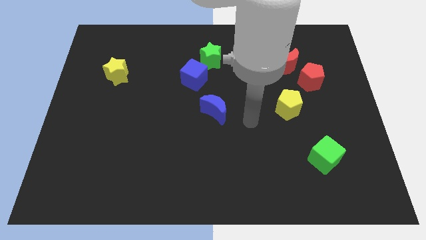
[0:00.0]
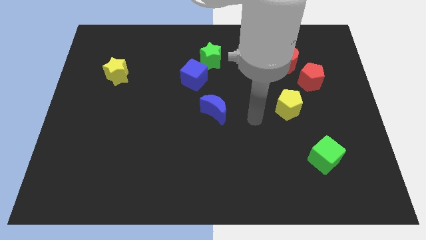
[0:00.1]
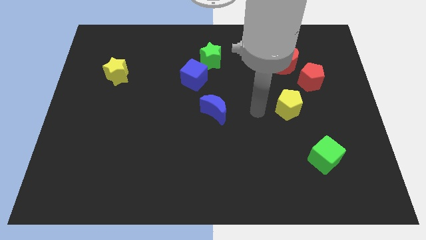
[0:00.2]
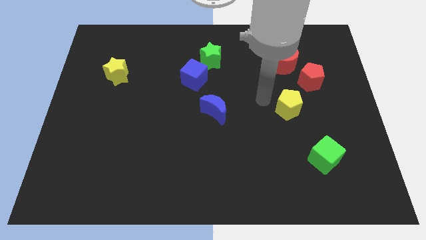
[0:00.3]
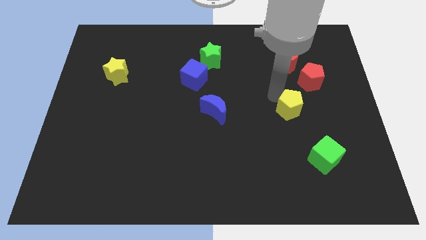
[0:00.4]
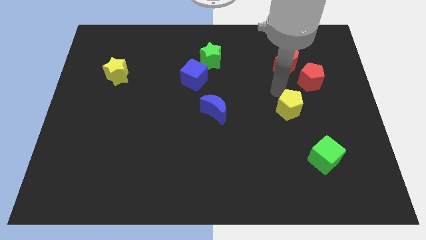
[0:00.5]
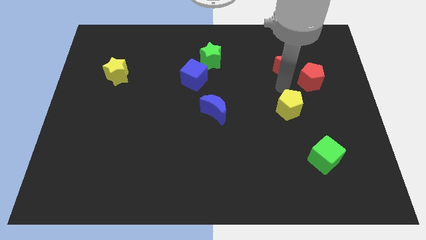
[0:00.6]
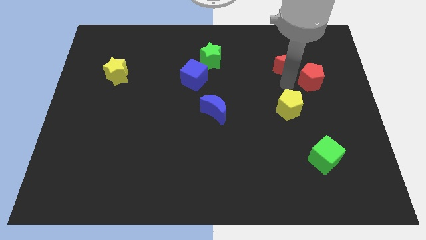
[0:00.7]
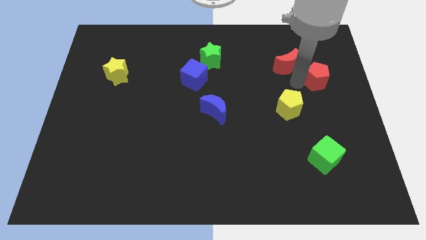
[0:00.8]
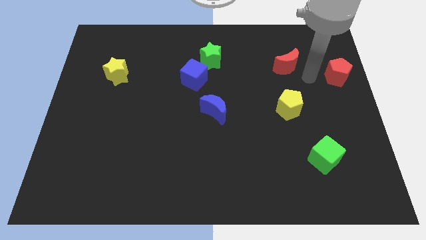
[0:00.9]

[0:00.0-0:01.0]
pull the red moon apart from the red pentagon

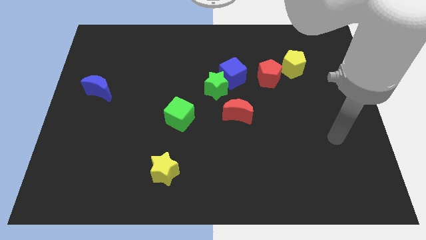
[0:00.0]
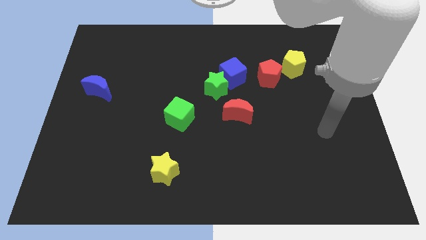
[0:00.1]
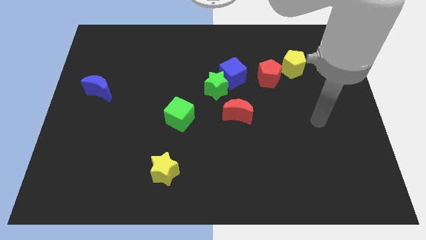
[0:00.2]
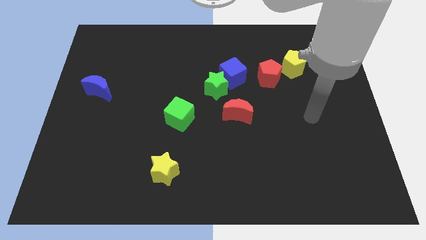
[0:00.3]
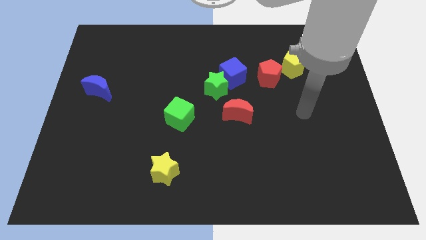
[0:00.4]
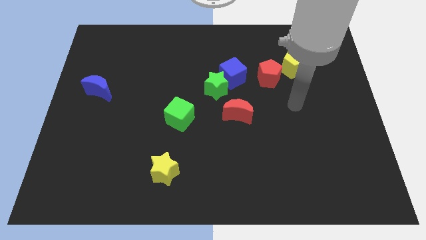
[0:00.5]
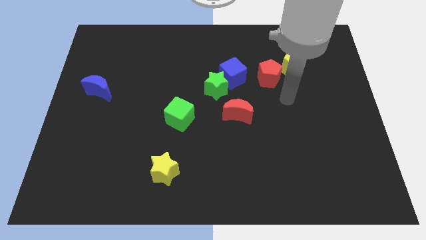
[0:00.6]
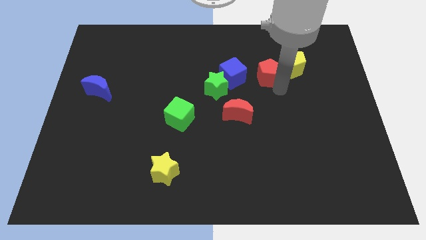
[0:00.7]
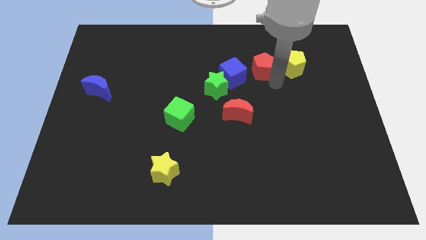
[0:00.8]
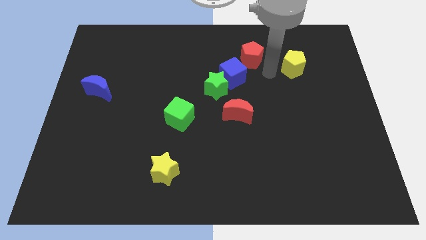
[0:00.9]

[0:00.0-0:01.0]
move the yellow pentagon away from the red pentagon

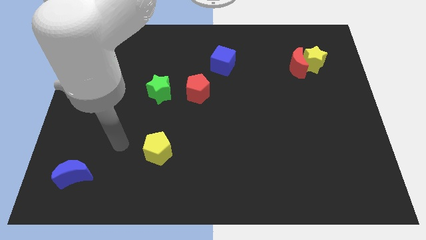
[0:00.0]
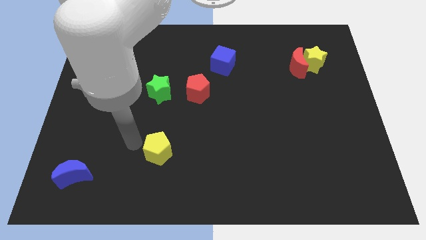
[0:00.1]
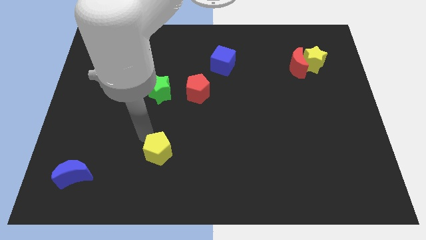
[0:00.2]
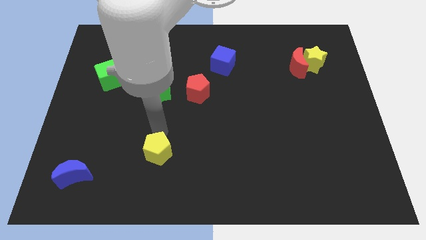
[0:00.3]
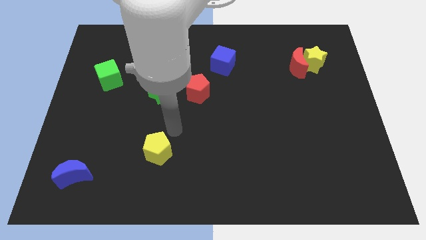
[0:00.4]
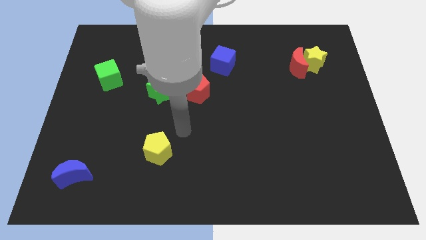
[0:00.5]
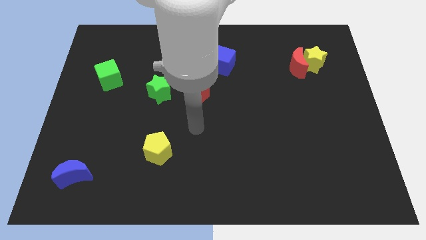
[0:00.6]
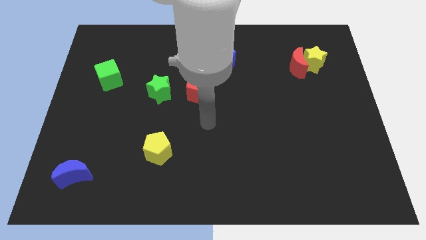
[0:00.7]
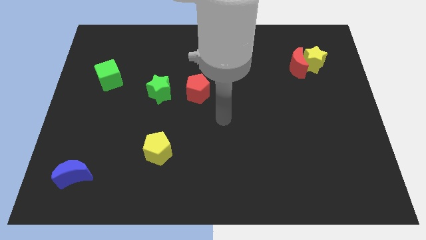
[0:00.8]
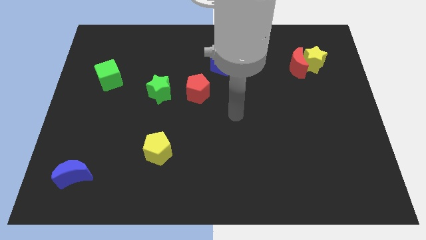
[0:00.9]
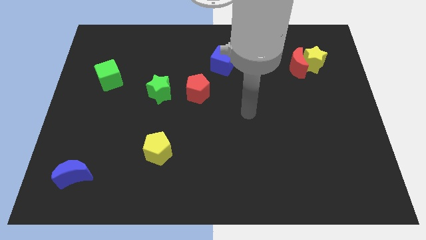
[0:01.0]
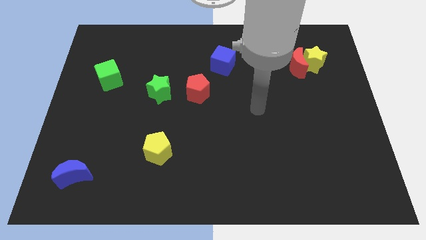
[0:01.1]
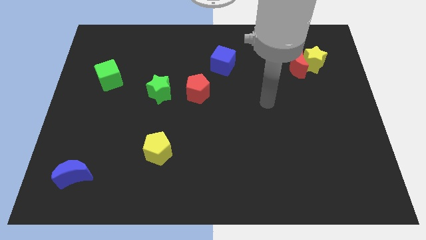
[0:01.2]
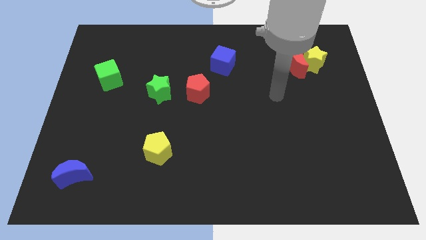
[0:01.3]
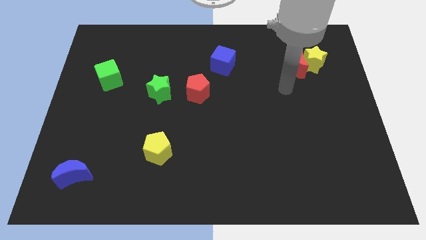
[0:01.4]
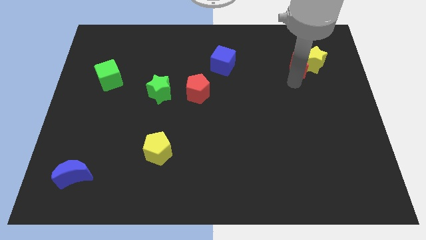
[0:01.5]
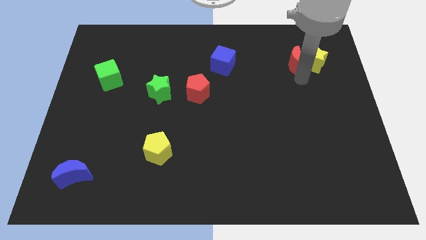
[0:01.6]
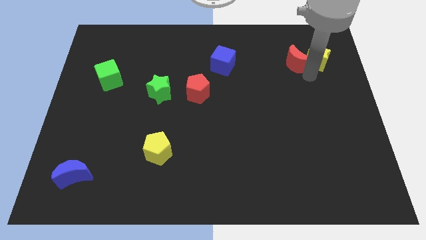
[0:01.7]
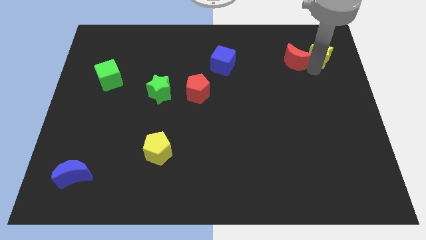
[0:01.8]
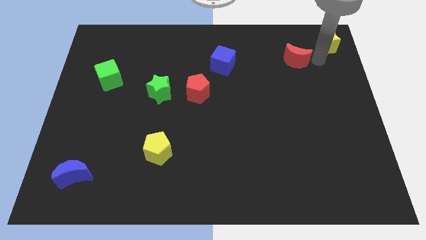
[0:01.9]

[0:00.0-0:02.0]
pull the red moon apart from the yellow star

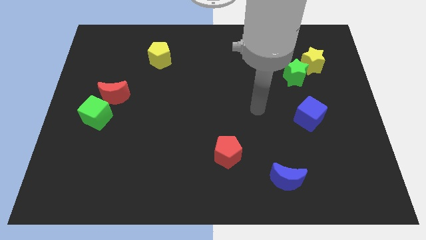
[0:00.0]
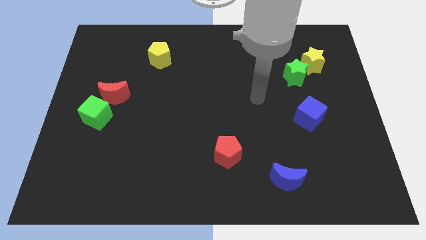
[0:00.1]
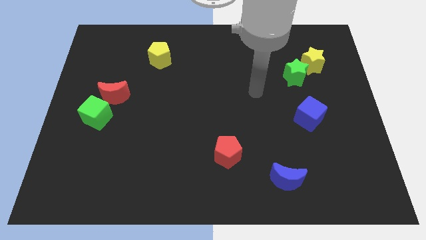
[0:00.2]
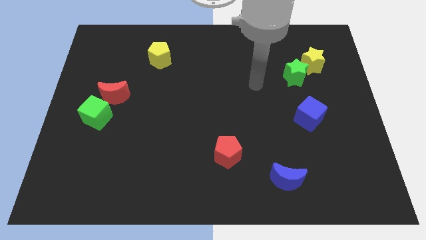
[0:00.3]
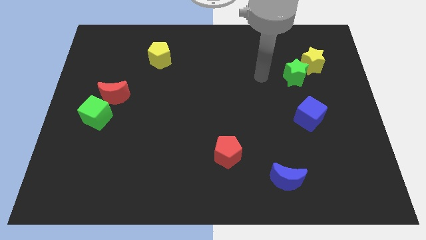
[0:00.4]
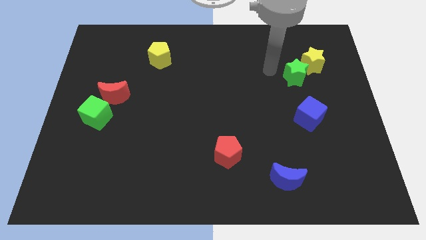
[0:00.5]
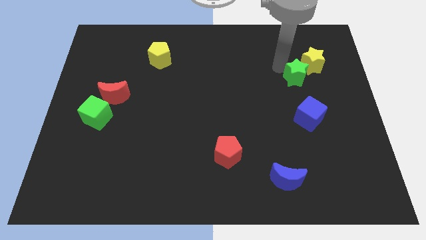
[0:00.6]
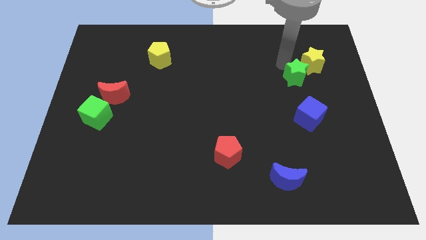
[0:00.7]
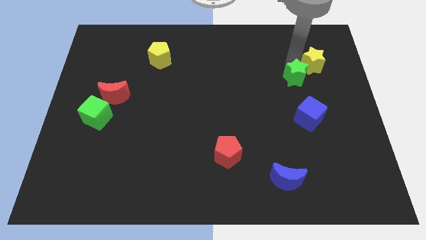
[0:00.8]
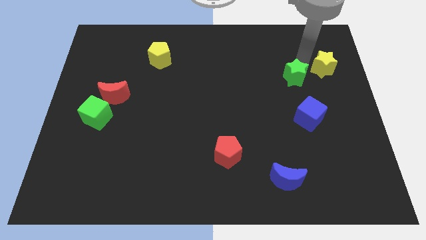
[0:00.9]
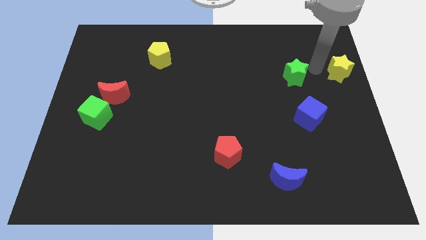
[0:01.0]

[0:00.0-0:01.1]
move the green star away from the yellow star

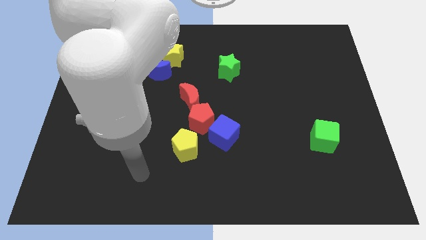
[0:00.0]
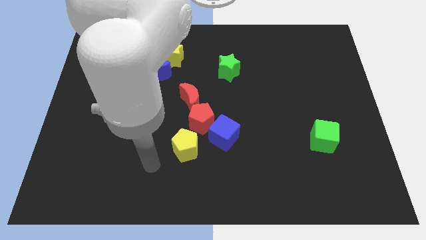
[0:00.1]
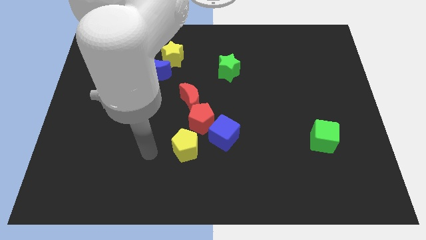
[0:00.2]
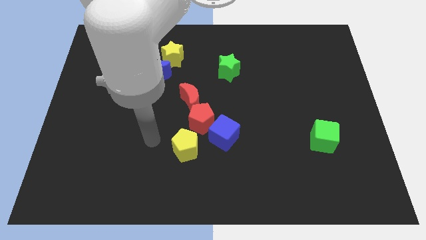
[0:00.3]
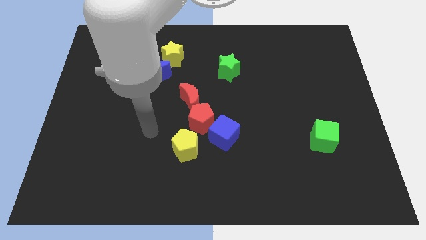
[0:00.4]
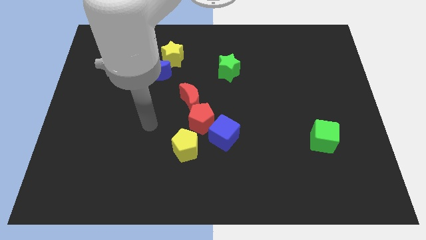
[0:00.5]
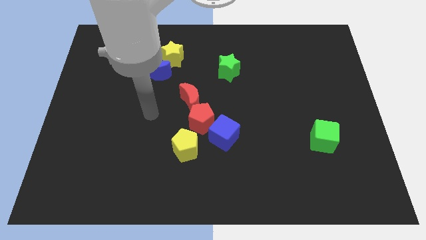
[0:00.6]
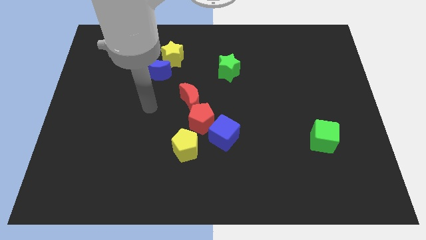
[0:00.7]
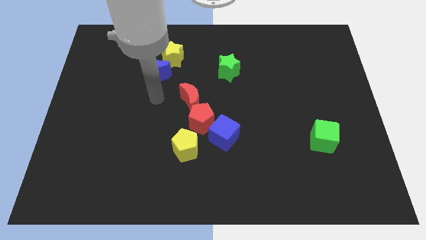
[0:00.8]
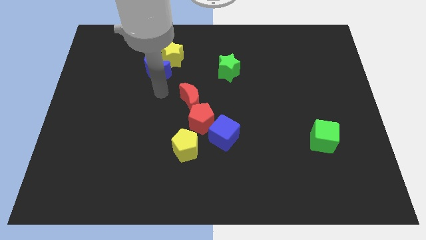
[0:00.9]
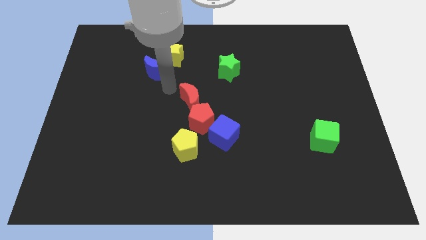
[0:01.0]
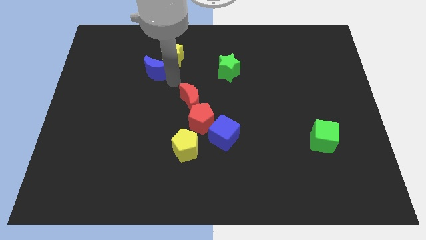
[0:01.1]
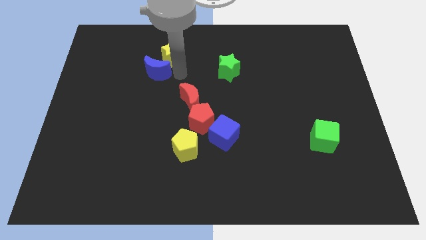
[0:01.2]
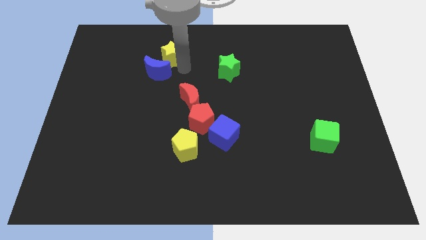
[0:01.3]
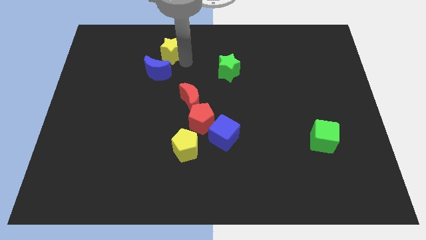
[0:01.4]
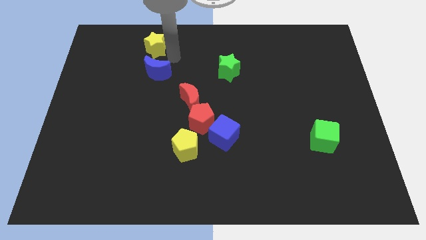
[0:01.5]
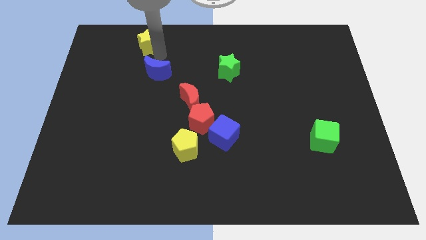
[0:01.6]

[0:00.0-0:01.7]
separate the blue moon from the yellow star

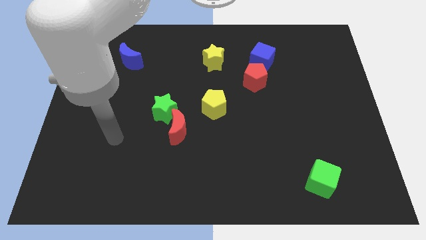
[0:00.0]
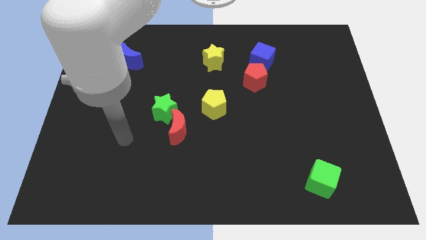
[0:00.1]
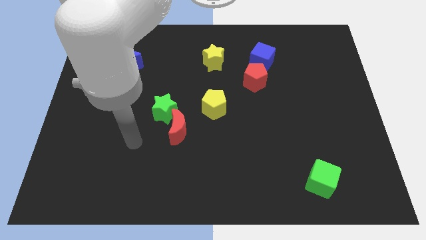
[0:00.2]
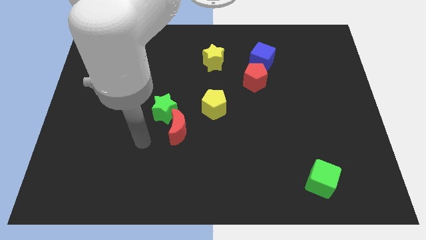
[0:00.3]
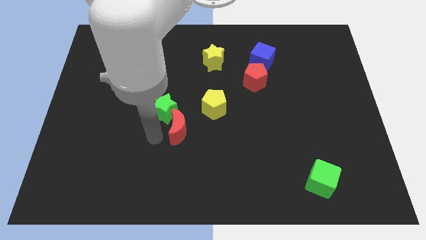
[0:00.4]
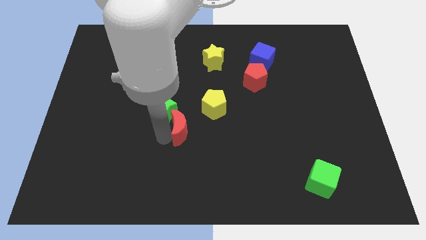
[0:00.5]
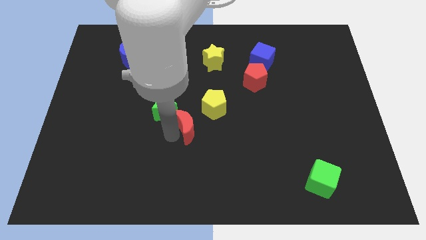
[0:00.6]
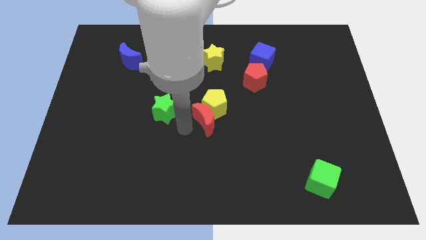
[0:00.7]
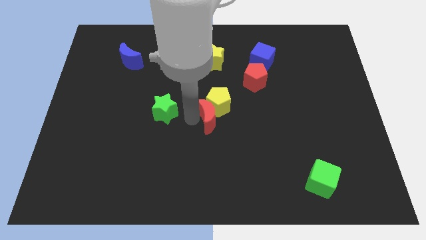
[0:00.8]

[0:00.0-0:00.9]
pull the green star apart from the red moon

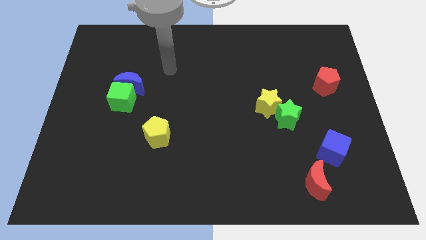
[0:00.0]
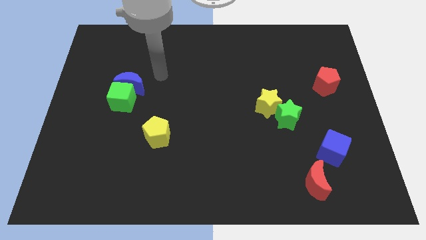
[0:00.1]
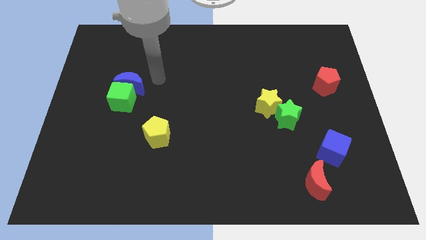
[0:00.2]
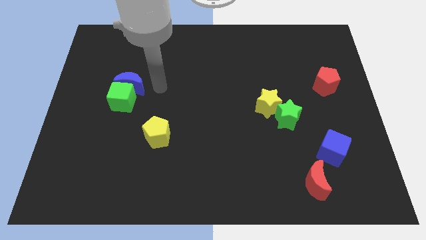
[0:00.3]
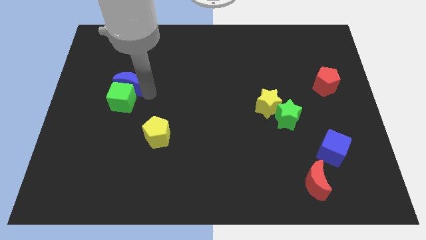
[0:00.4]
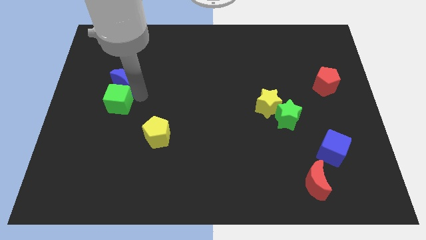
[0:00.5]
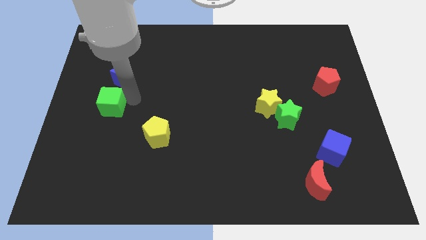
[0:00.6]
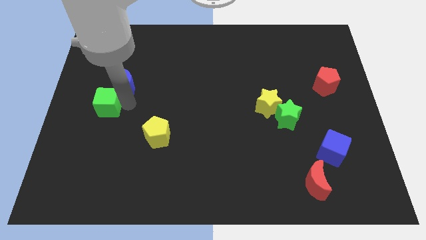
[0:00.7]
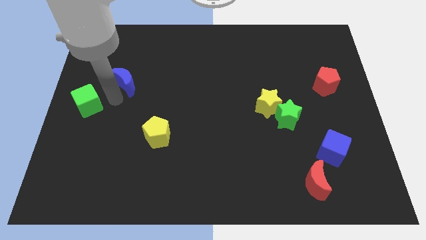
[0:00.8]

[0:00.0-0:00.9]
pull the blue moon apart from the green cube

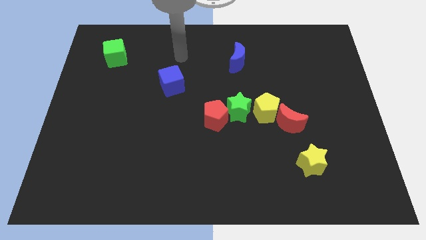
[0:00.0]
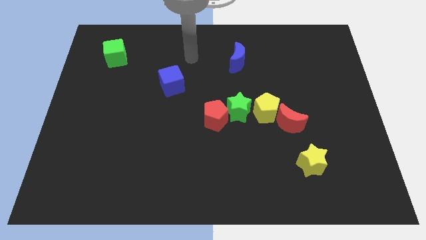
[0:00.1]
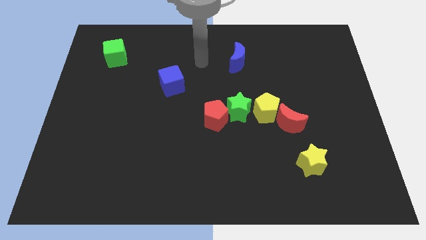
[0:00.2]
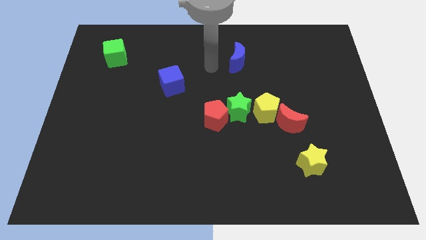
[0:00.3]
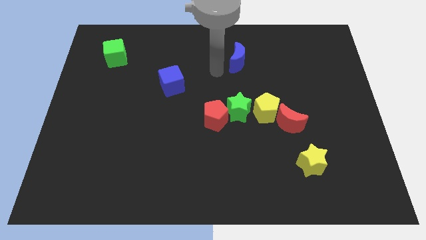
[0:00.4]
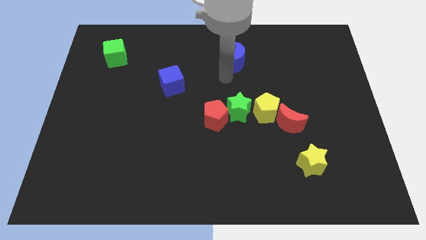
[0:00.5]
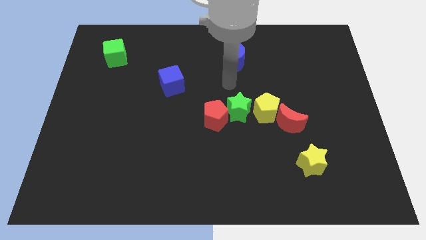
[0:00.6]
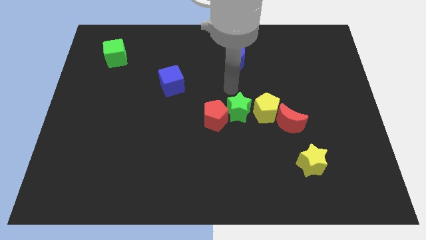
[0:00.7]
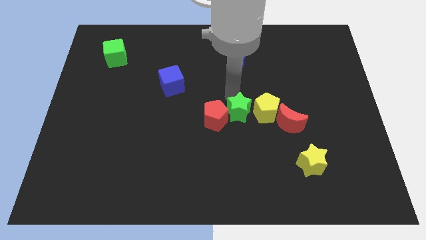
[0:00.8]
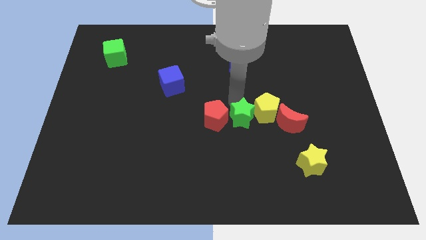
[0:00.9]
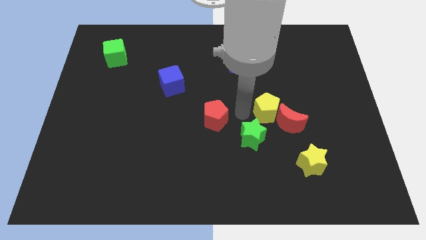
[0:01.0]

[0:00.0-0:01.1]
pull the red pentagon apart from the green star
